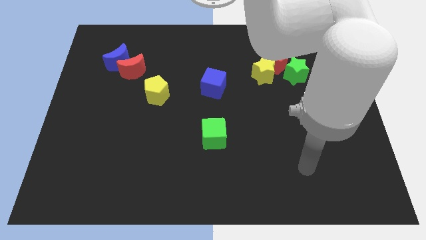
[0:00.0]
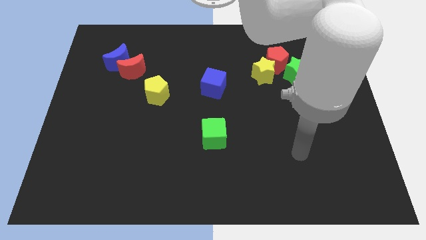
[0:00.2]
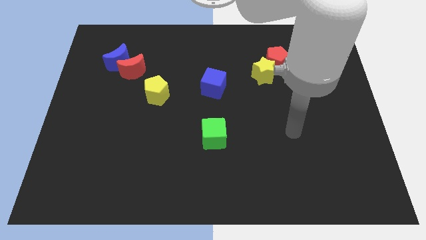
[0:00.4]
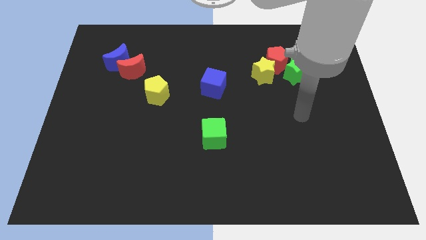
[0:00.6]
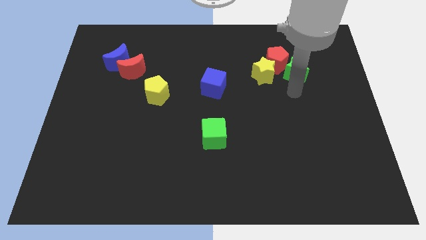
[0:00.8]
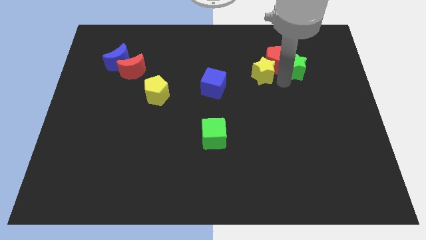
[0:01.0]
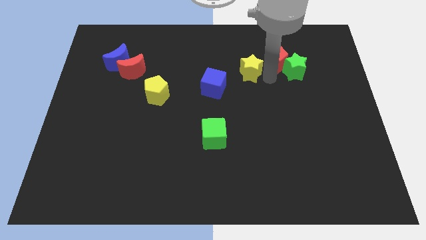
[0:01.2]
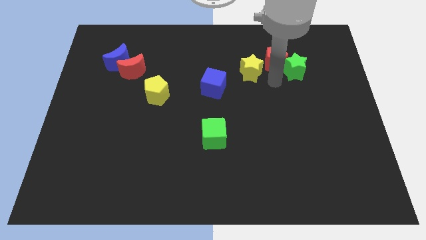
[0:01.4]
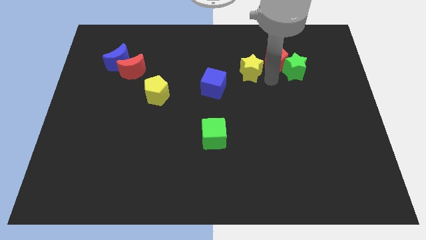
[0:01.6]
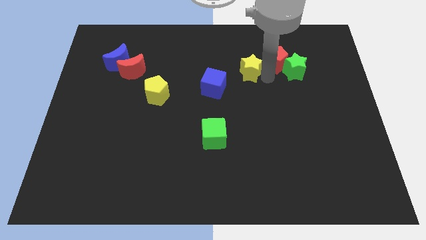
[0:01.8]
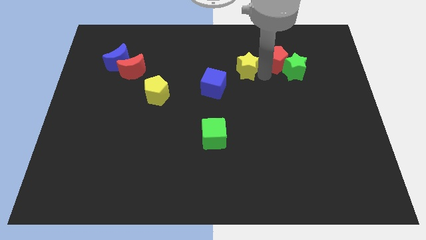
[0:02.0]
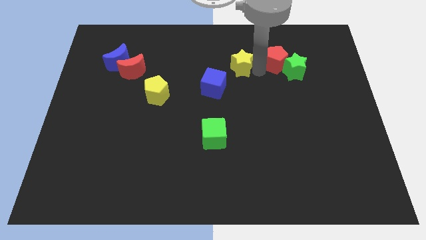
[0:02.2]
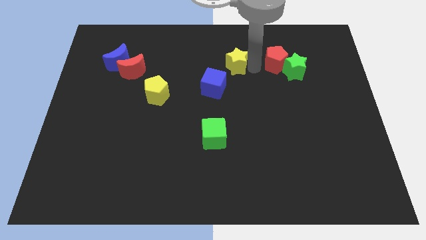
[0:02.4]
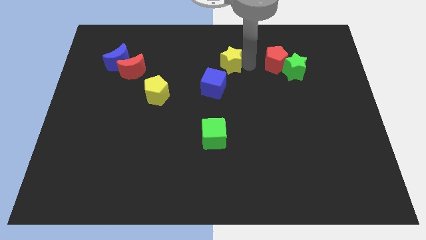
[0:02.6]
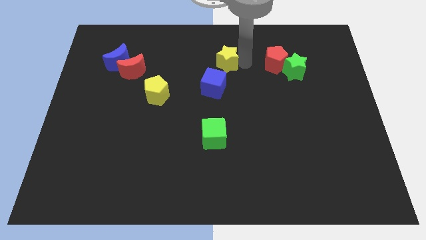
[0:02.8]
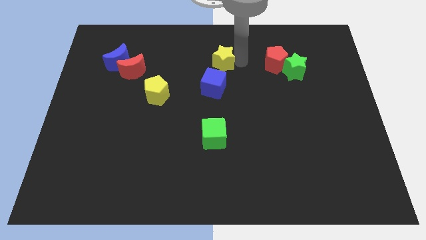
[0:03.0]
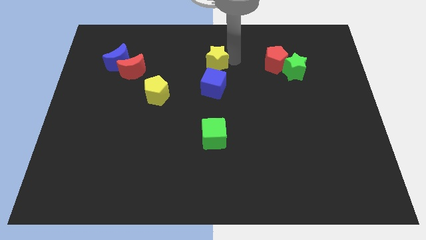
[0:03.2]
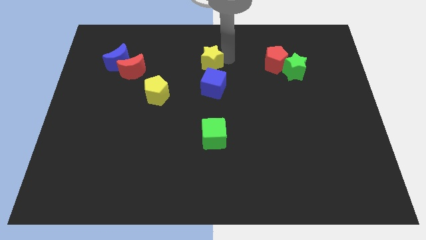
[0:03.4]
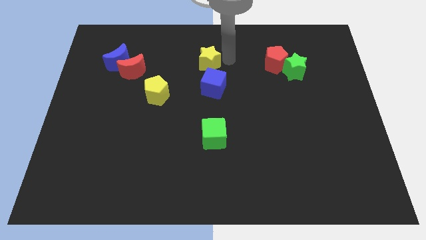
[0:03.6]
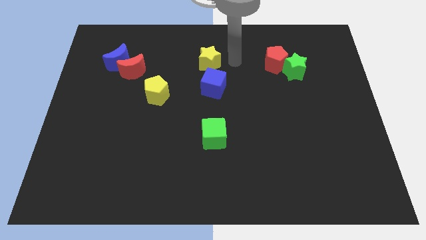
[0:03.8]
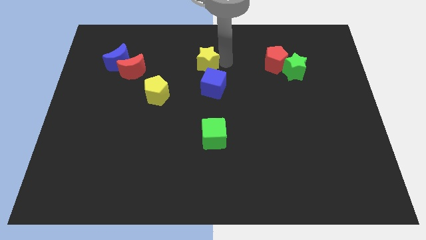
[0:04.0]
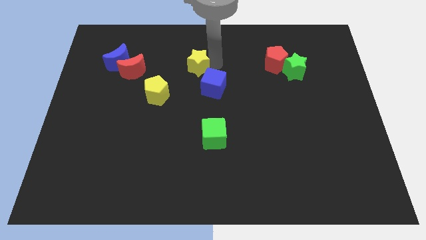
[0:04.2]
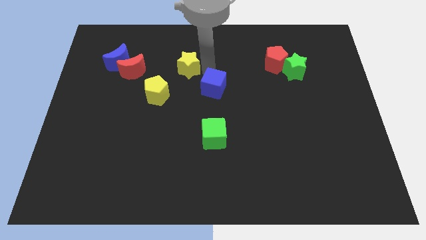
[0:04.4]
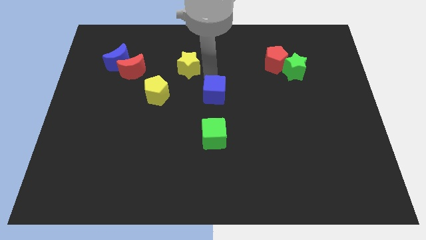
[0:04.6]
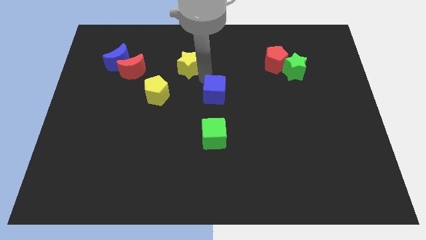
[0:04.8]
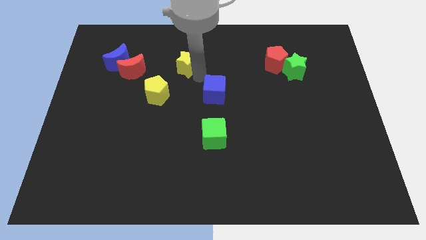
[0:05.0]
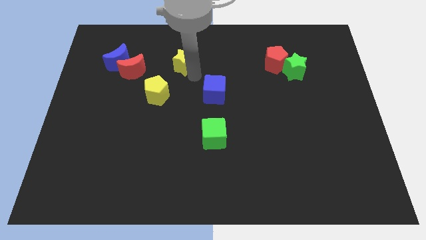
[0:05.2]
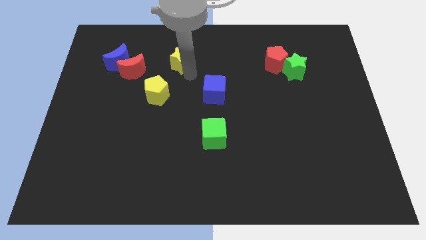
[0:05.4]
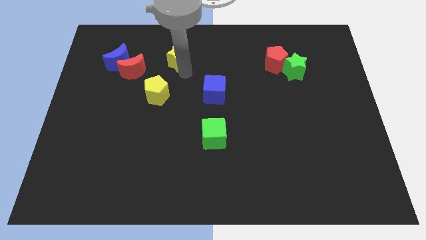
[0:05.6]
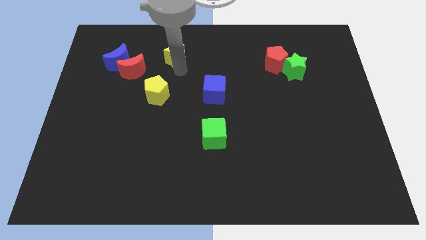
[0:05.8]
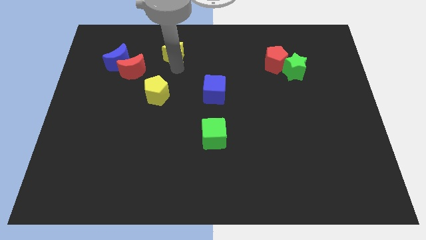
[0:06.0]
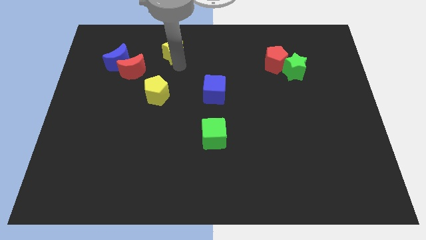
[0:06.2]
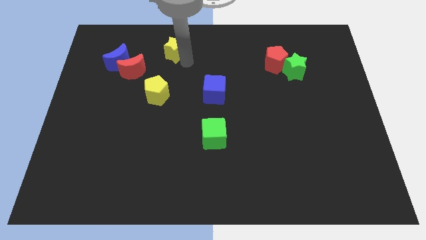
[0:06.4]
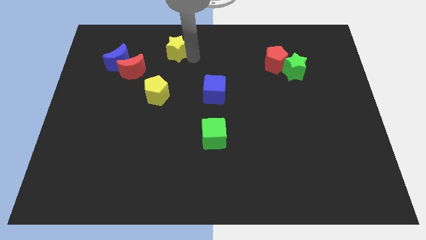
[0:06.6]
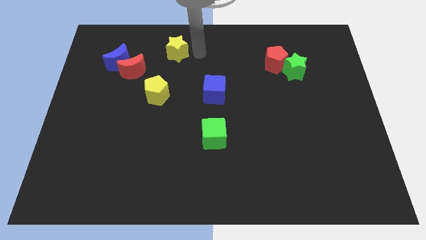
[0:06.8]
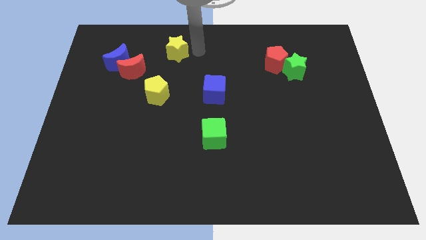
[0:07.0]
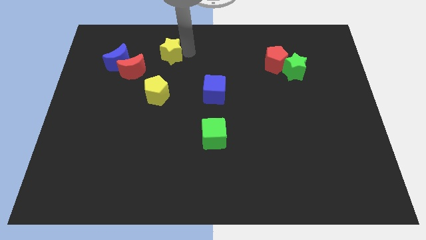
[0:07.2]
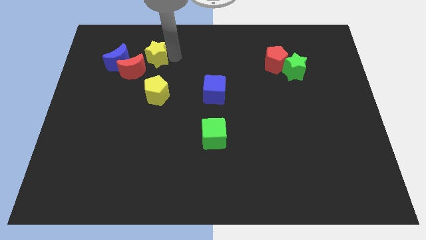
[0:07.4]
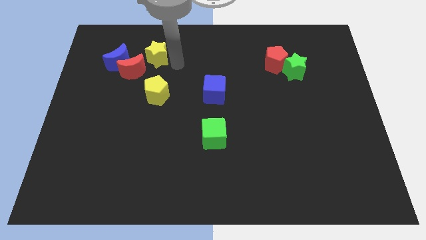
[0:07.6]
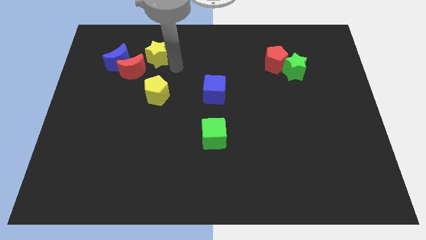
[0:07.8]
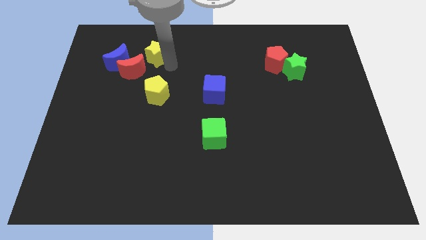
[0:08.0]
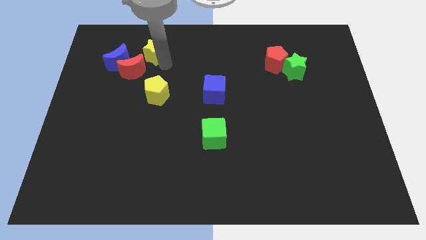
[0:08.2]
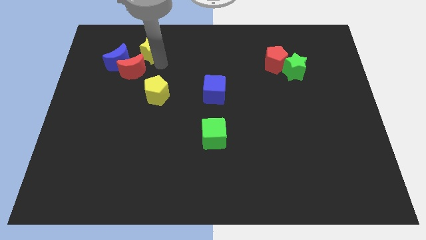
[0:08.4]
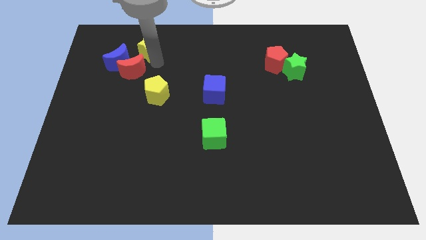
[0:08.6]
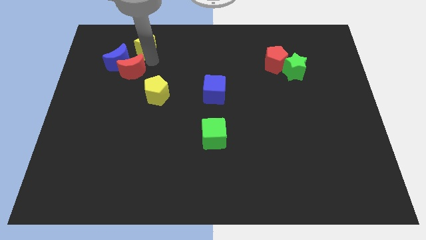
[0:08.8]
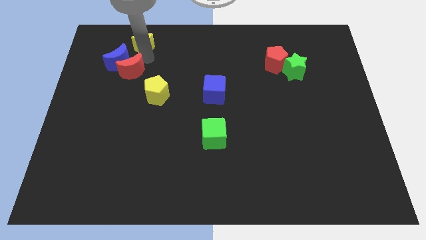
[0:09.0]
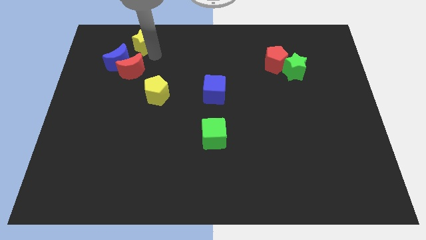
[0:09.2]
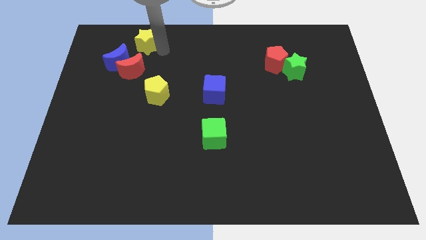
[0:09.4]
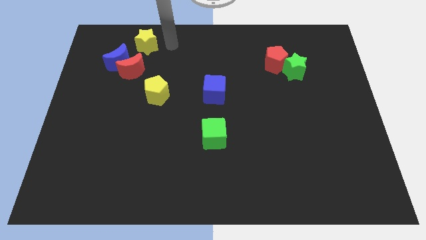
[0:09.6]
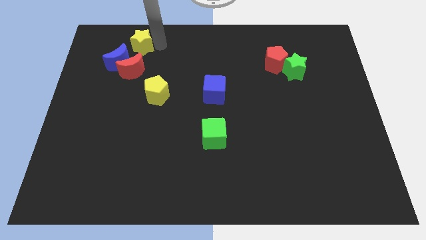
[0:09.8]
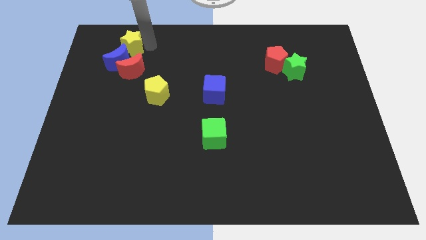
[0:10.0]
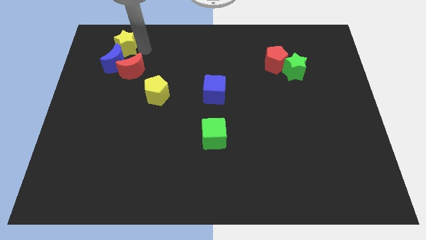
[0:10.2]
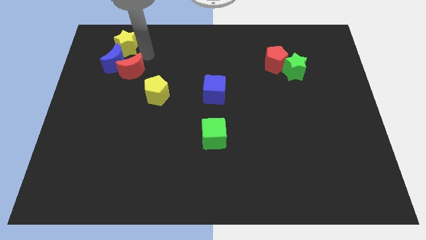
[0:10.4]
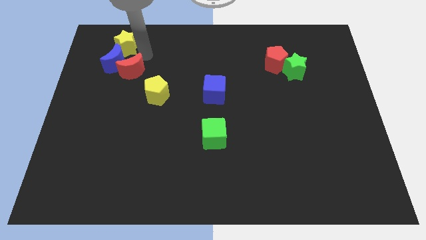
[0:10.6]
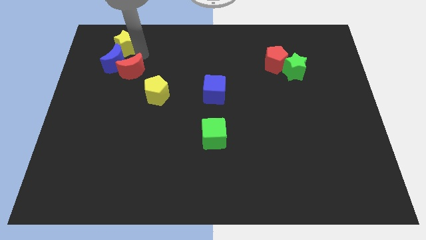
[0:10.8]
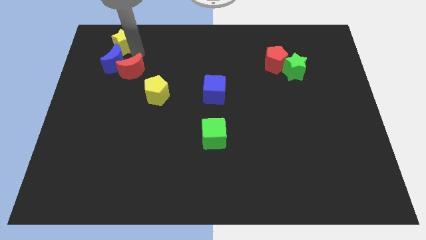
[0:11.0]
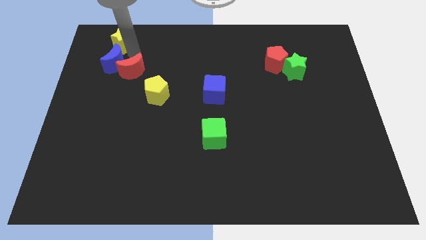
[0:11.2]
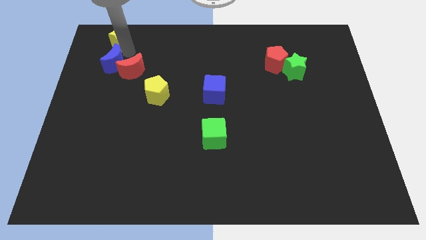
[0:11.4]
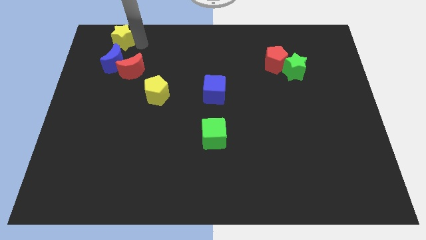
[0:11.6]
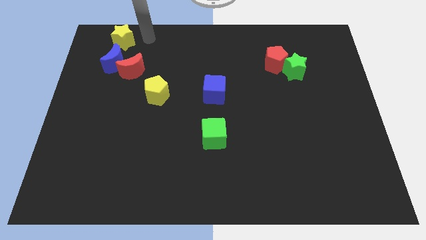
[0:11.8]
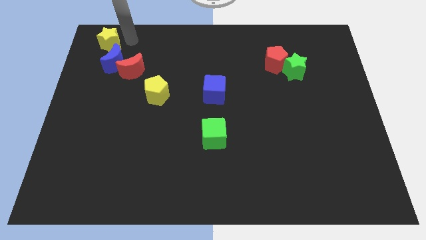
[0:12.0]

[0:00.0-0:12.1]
slide the yellow star to the top left of the board

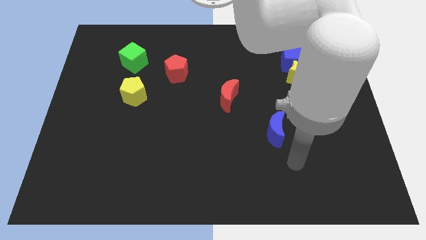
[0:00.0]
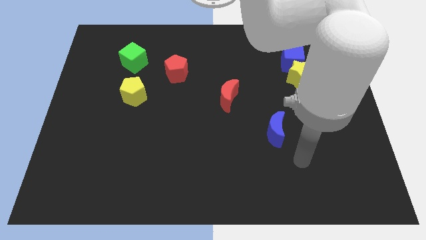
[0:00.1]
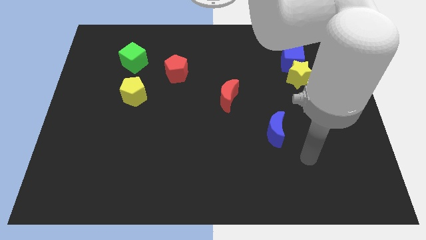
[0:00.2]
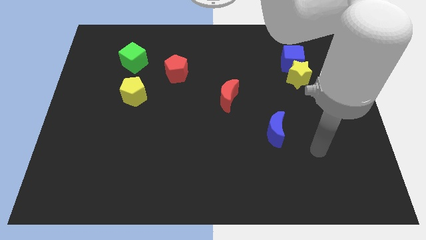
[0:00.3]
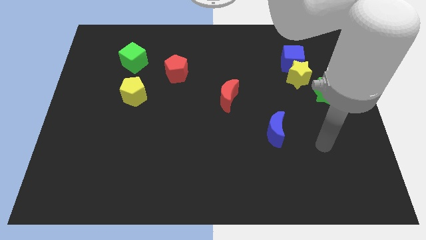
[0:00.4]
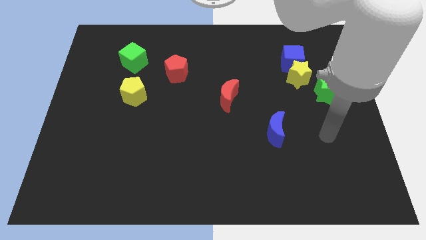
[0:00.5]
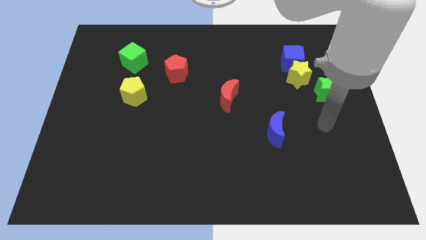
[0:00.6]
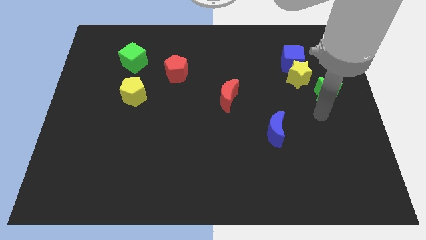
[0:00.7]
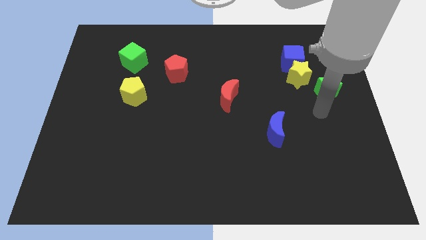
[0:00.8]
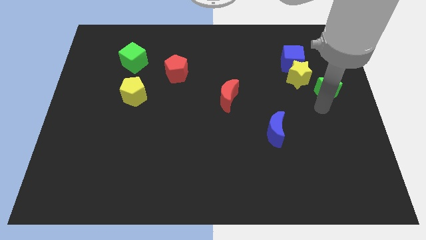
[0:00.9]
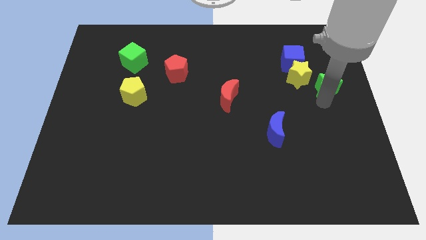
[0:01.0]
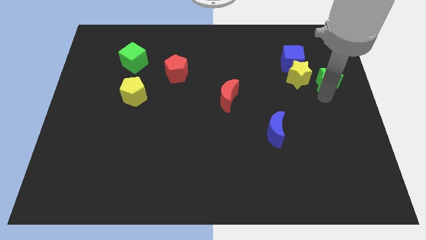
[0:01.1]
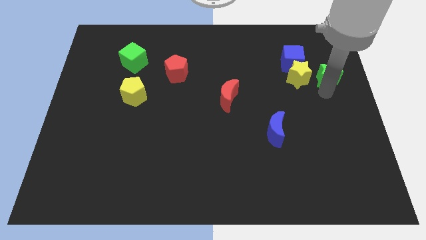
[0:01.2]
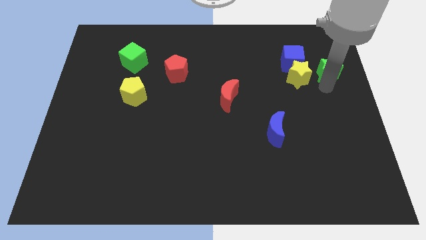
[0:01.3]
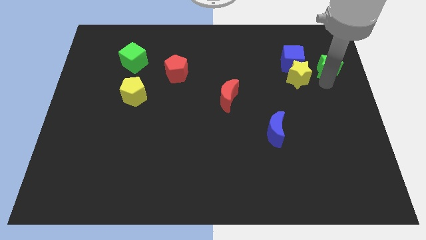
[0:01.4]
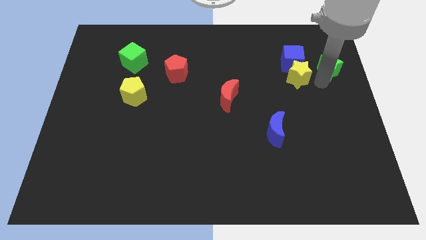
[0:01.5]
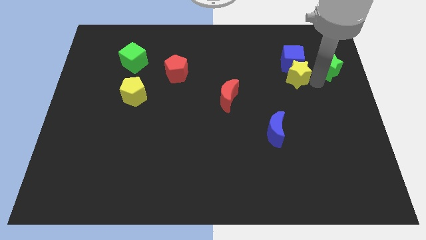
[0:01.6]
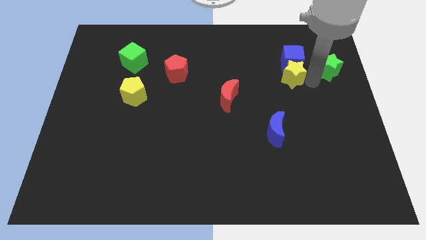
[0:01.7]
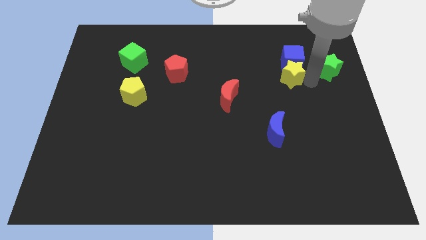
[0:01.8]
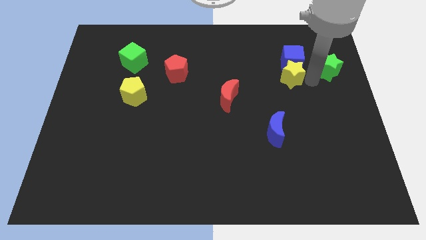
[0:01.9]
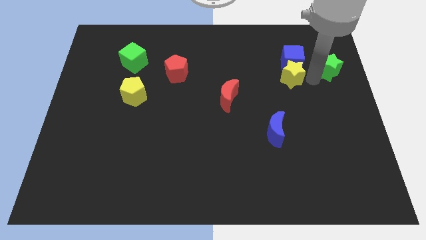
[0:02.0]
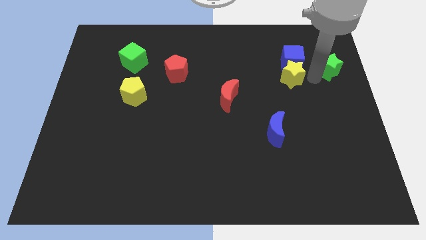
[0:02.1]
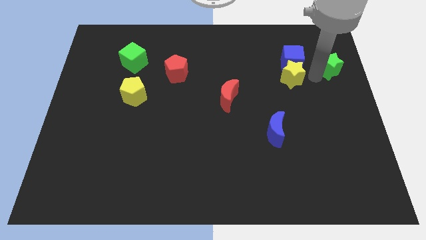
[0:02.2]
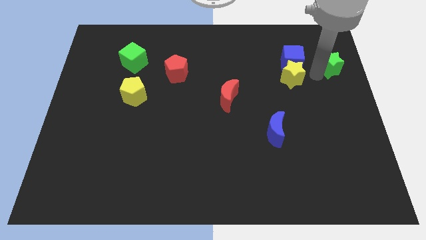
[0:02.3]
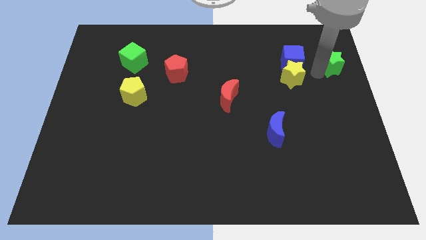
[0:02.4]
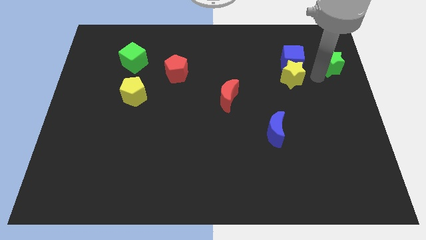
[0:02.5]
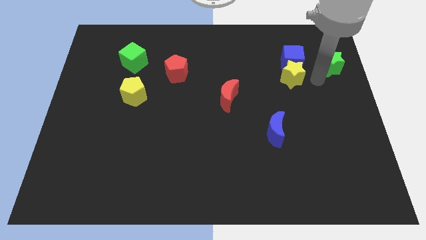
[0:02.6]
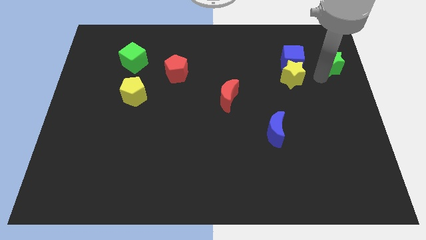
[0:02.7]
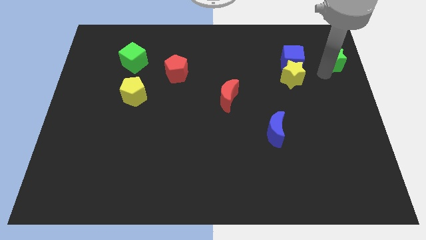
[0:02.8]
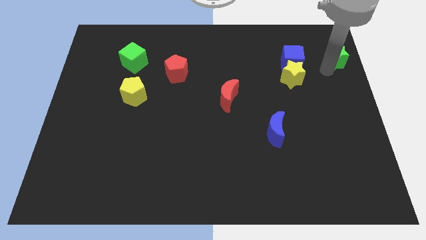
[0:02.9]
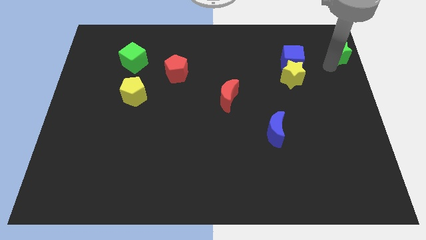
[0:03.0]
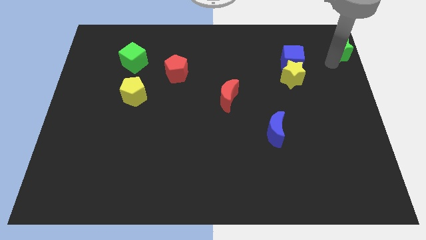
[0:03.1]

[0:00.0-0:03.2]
push the green star to the top right corner
